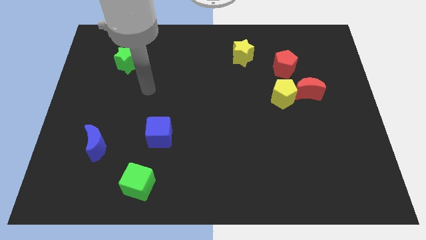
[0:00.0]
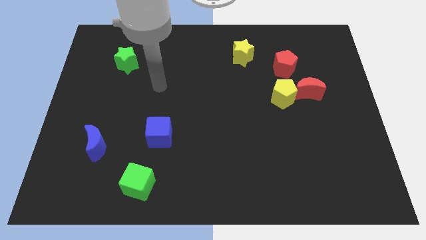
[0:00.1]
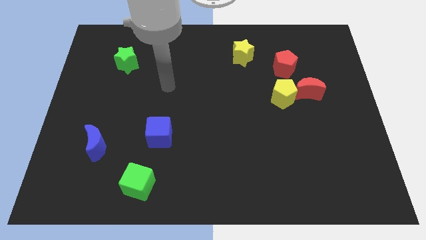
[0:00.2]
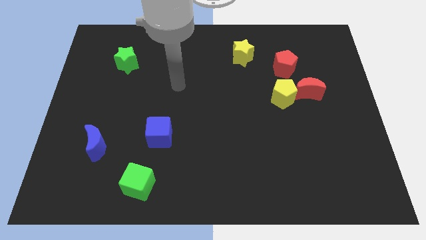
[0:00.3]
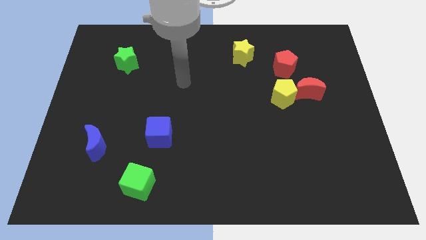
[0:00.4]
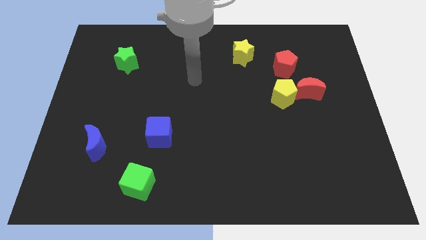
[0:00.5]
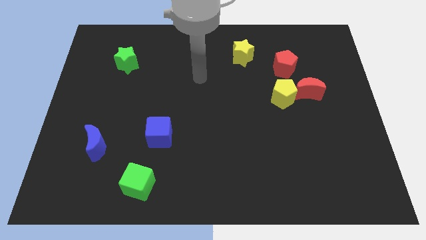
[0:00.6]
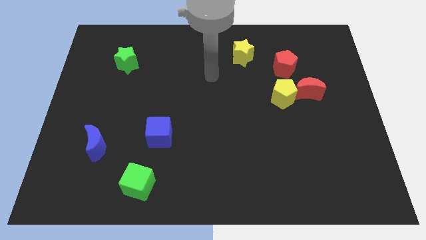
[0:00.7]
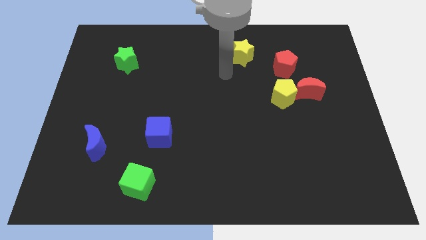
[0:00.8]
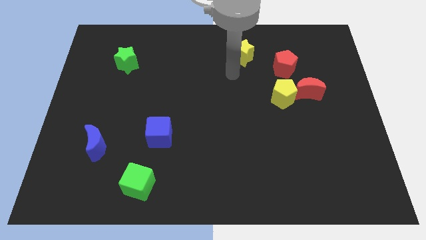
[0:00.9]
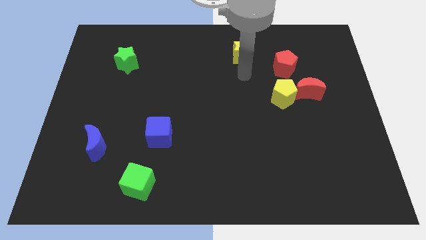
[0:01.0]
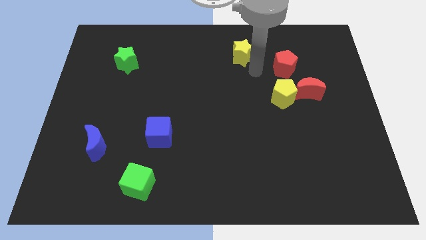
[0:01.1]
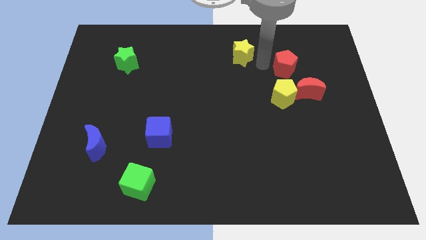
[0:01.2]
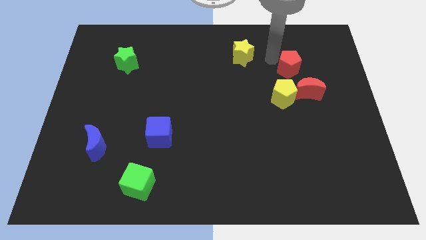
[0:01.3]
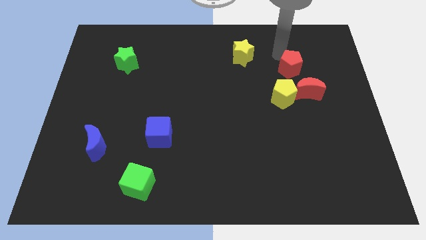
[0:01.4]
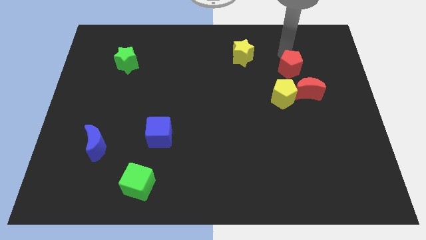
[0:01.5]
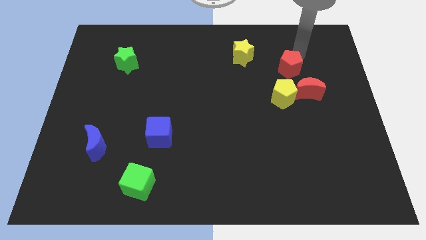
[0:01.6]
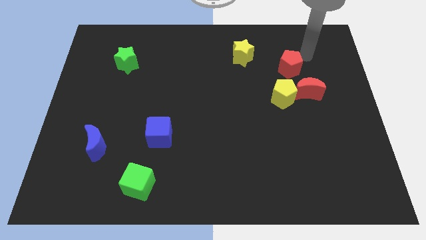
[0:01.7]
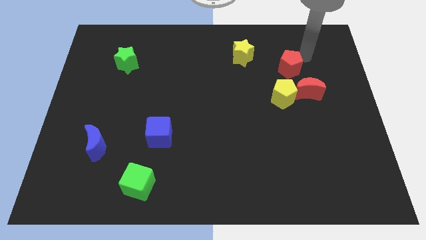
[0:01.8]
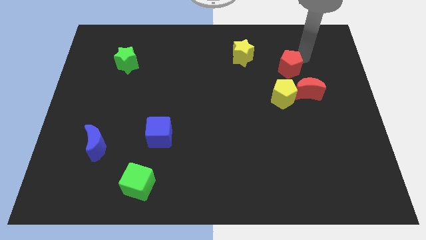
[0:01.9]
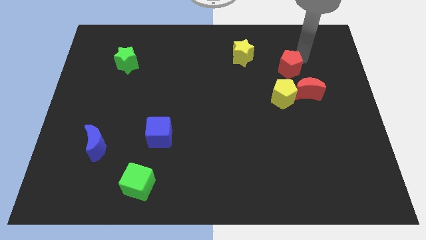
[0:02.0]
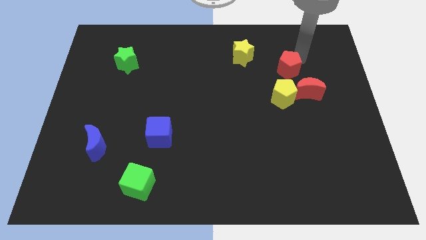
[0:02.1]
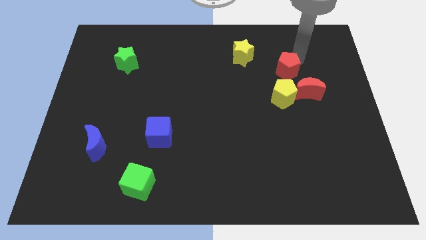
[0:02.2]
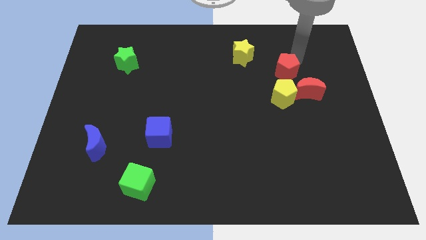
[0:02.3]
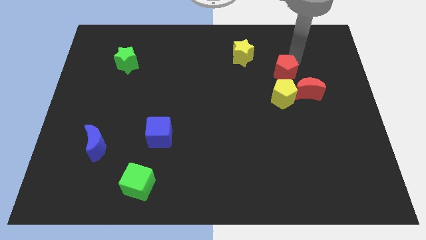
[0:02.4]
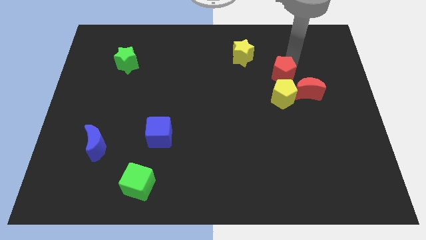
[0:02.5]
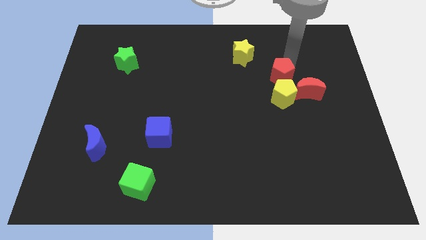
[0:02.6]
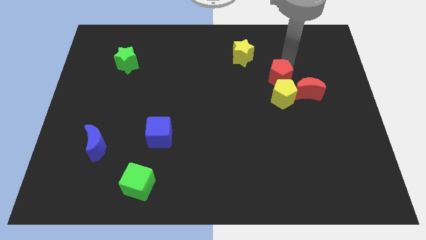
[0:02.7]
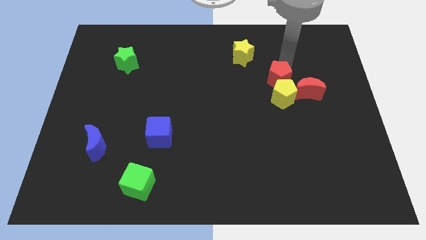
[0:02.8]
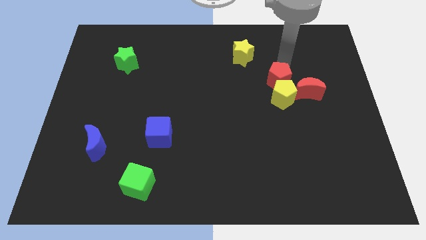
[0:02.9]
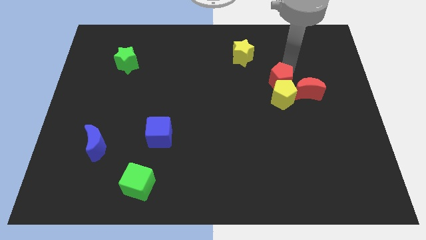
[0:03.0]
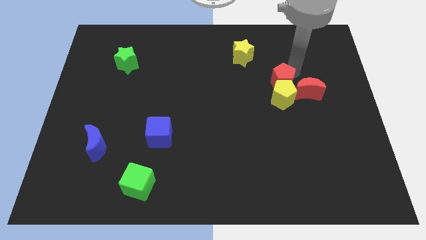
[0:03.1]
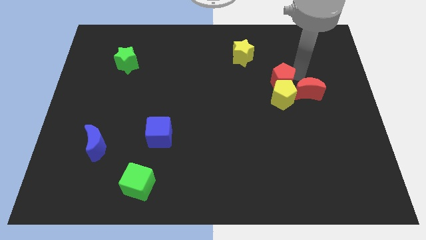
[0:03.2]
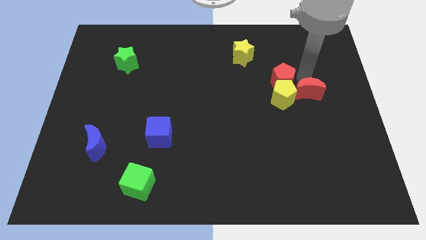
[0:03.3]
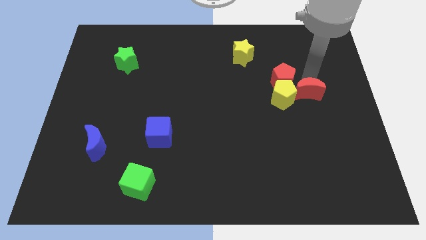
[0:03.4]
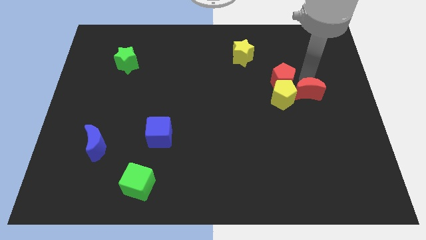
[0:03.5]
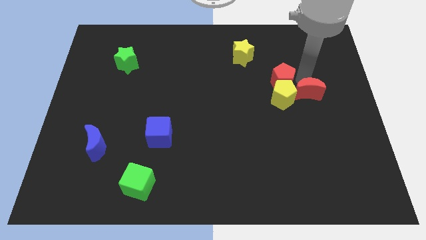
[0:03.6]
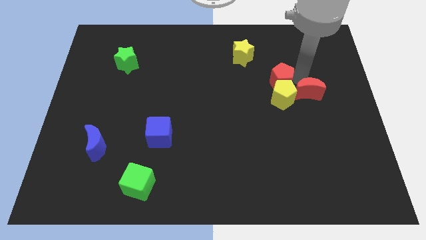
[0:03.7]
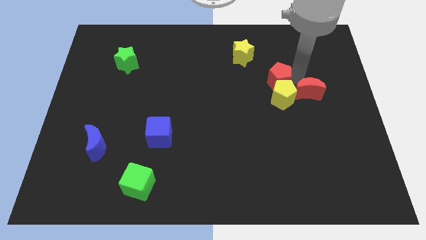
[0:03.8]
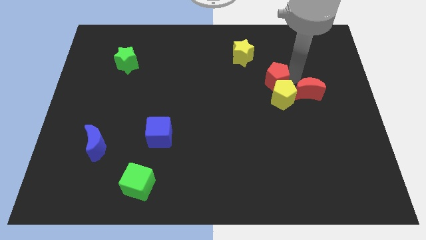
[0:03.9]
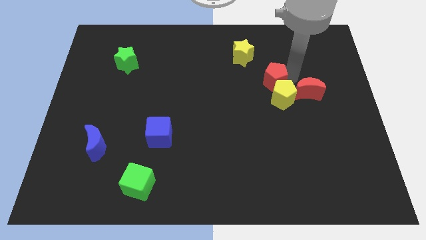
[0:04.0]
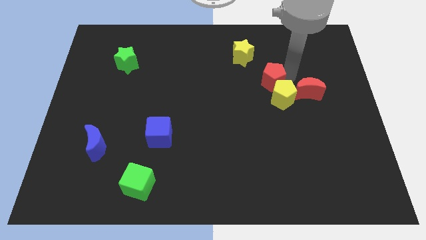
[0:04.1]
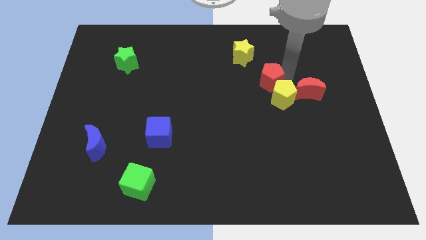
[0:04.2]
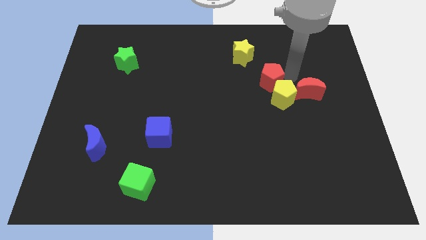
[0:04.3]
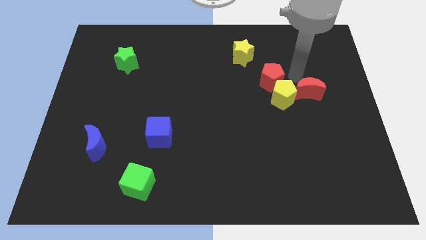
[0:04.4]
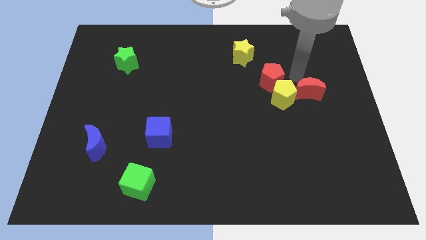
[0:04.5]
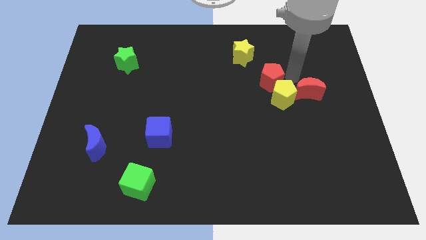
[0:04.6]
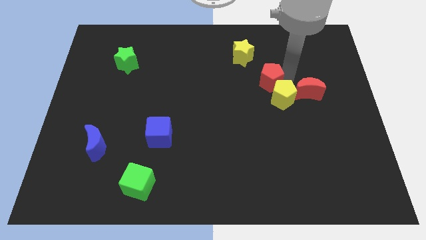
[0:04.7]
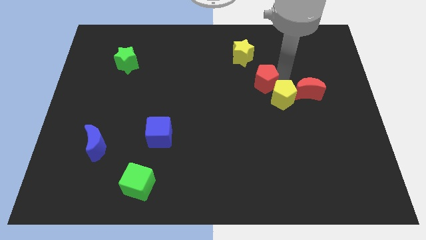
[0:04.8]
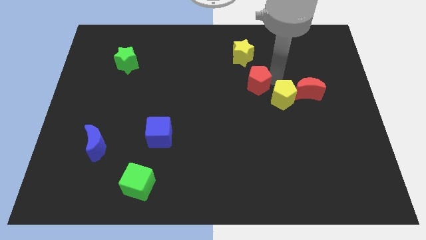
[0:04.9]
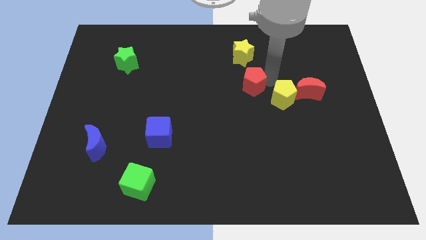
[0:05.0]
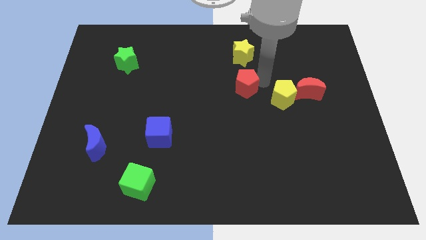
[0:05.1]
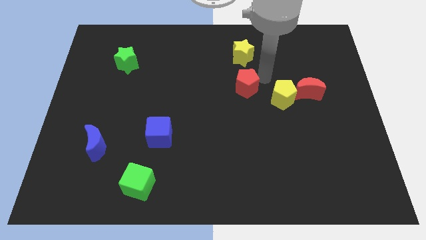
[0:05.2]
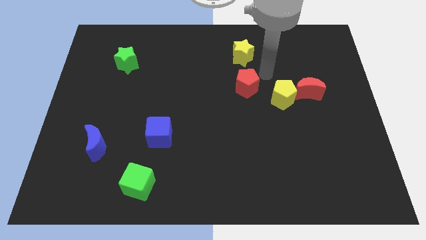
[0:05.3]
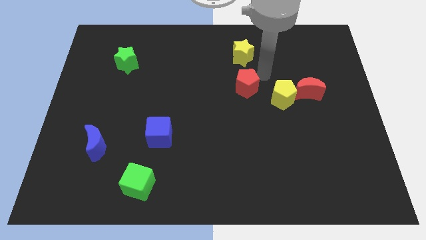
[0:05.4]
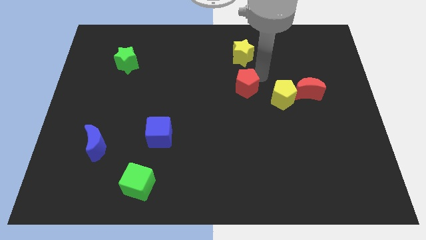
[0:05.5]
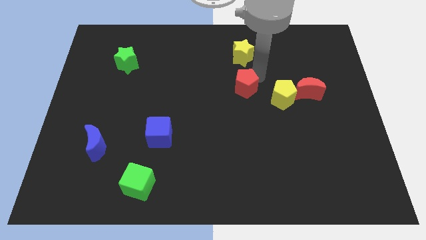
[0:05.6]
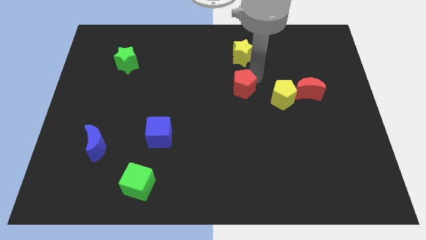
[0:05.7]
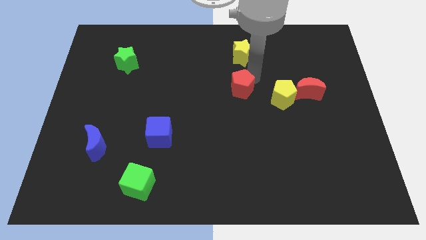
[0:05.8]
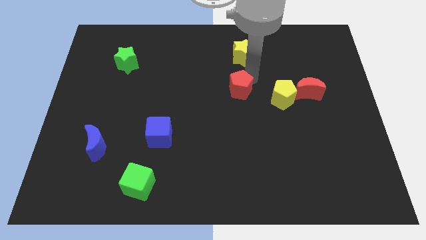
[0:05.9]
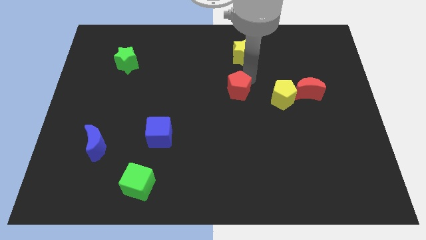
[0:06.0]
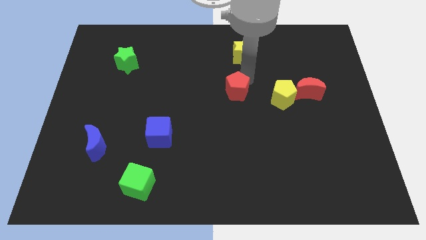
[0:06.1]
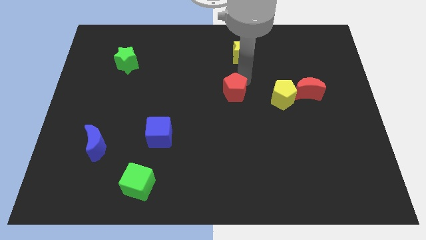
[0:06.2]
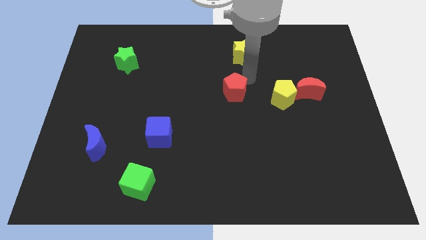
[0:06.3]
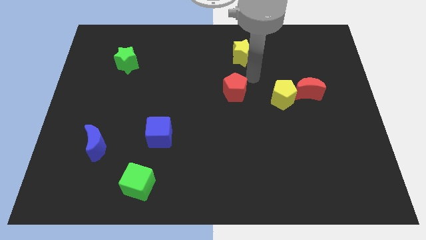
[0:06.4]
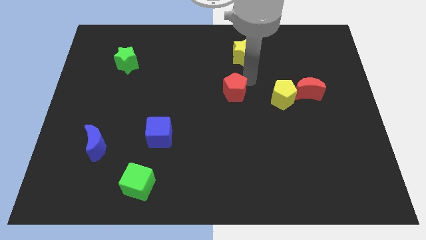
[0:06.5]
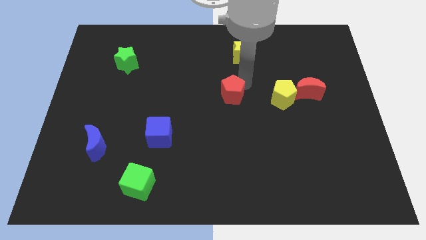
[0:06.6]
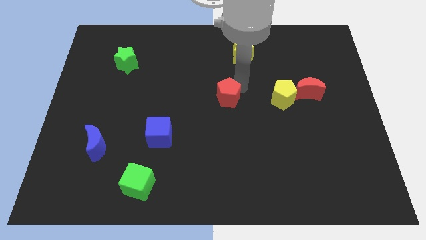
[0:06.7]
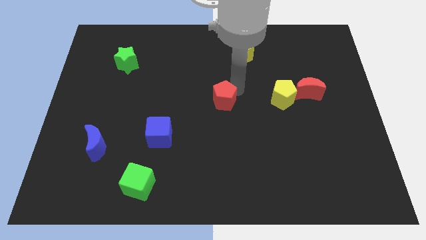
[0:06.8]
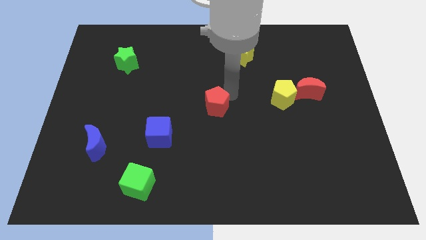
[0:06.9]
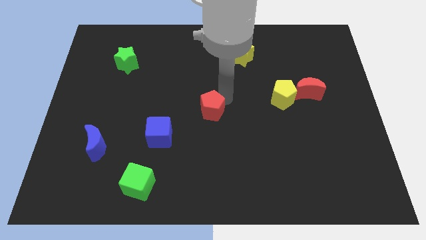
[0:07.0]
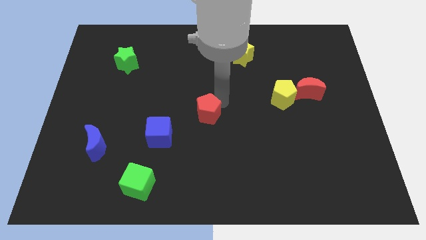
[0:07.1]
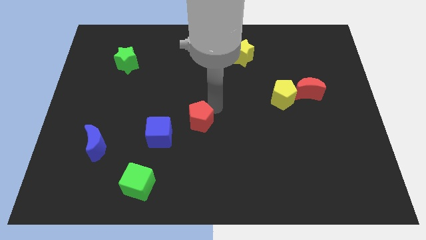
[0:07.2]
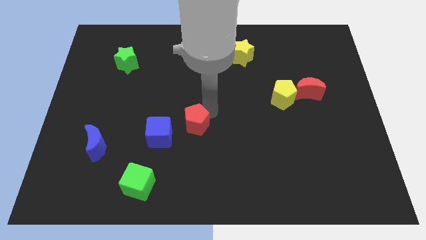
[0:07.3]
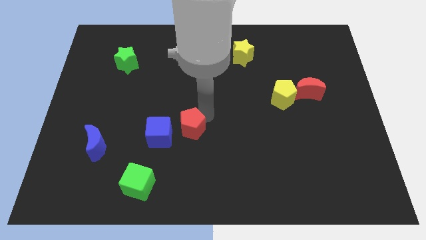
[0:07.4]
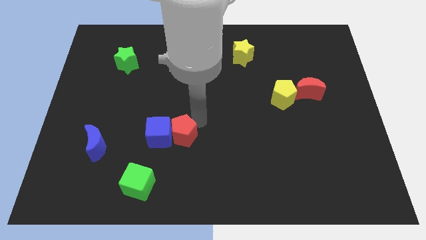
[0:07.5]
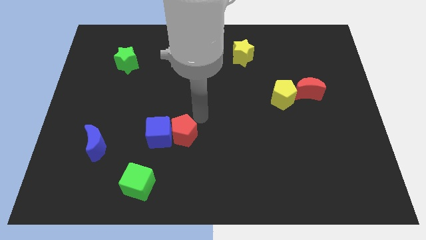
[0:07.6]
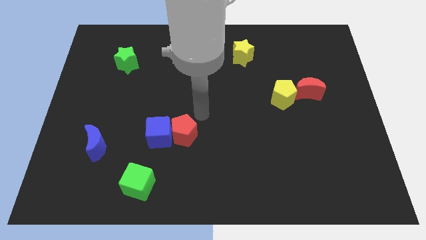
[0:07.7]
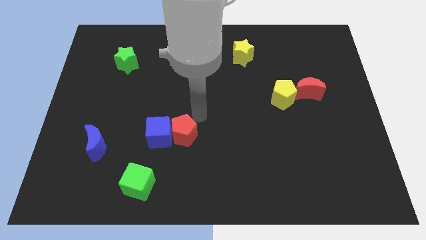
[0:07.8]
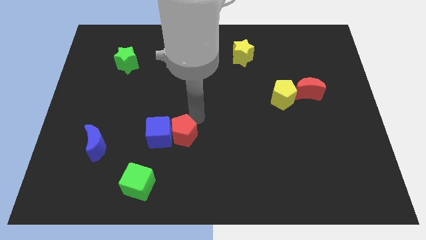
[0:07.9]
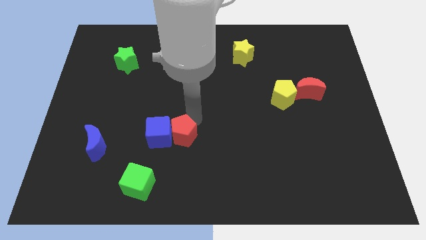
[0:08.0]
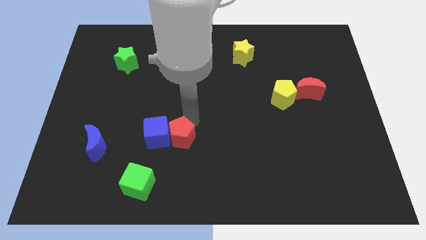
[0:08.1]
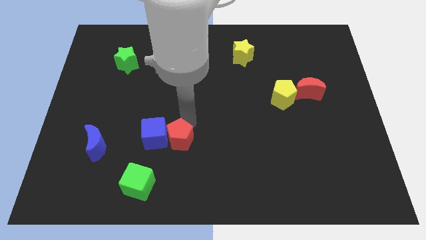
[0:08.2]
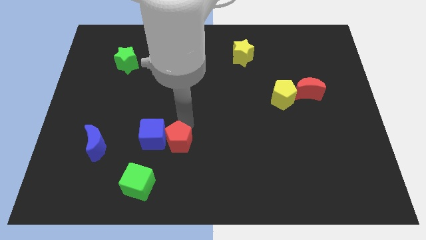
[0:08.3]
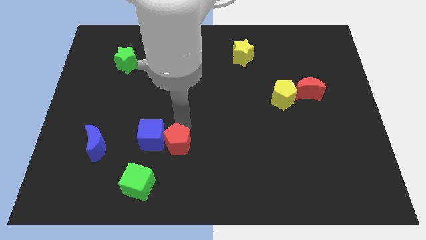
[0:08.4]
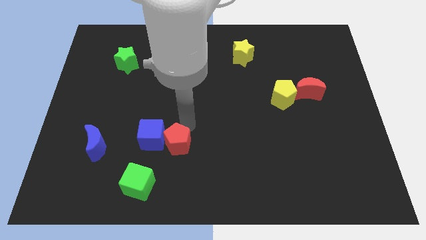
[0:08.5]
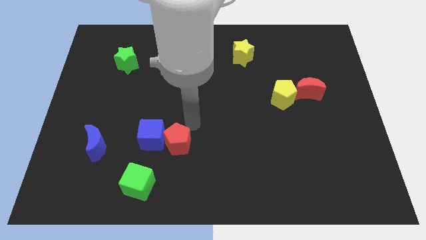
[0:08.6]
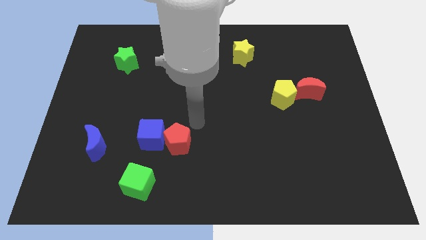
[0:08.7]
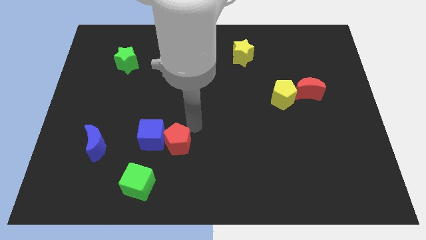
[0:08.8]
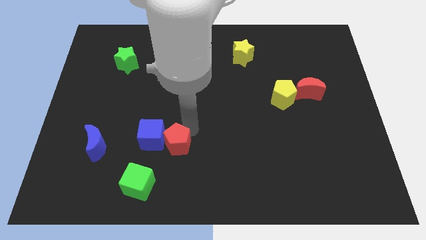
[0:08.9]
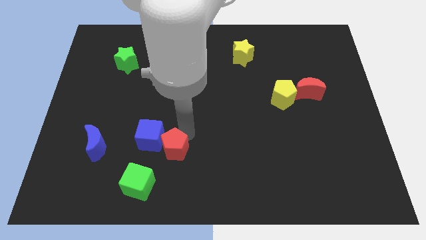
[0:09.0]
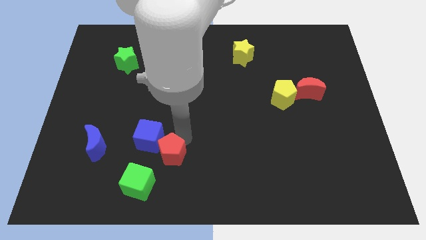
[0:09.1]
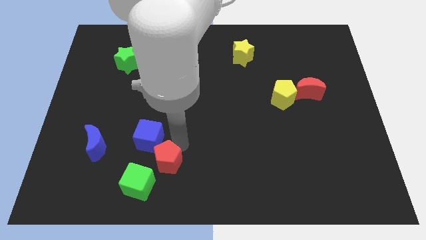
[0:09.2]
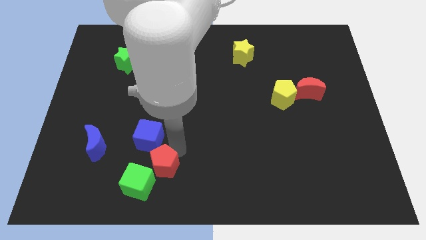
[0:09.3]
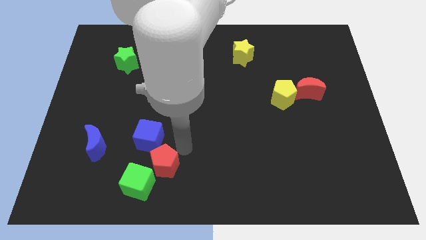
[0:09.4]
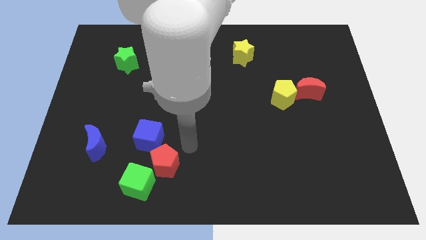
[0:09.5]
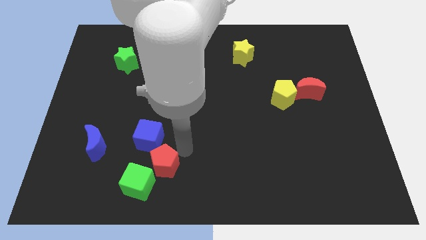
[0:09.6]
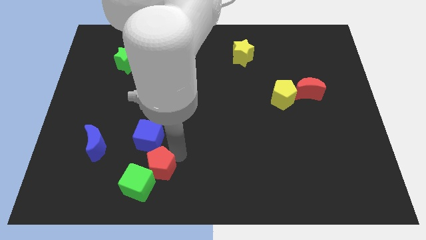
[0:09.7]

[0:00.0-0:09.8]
move the red pentagon to the green cube
